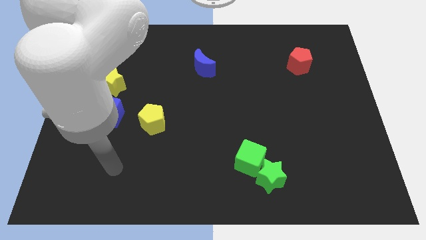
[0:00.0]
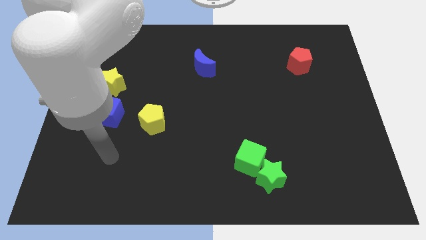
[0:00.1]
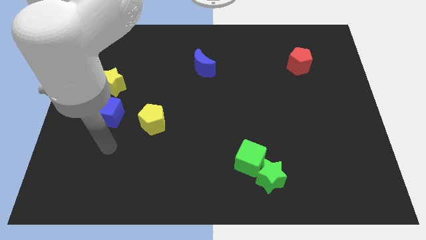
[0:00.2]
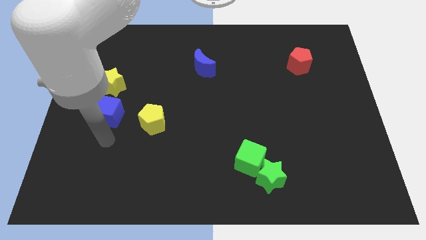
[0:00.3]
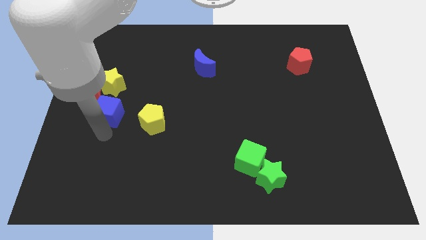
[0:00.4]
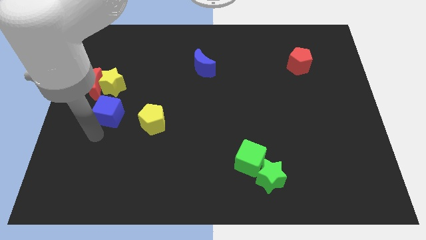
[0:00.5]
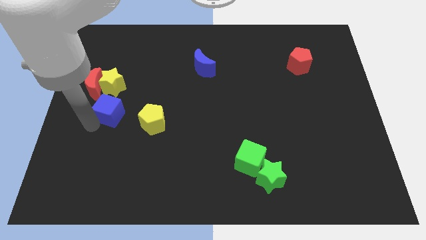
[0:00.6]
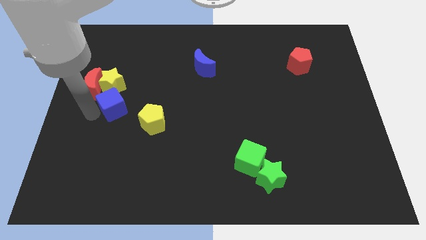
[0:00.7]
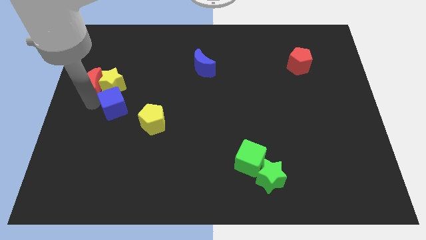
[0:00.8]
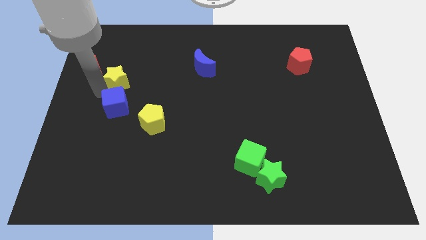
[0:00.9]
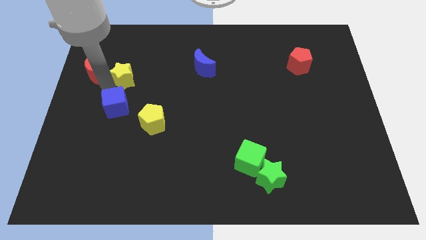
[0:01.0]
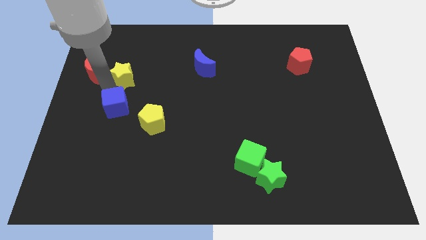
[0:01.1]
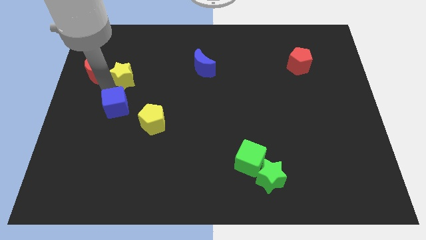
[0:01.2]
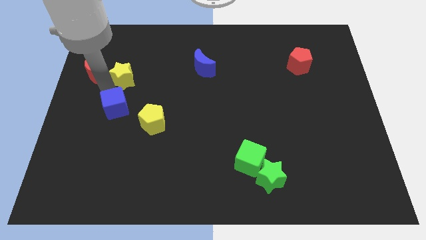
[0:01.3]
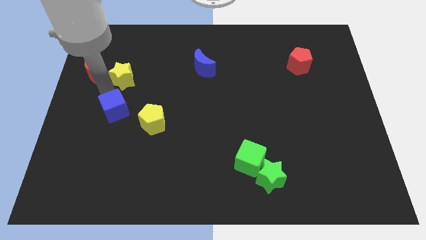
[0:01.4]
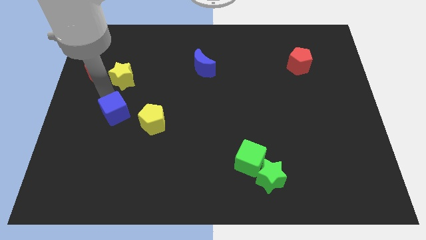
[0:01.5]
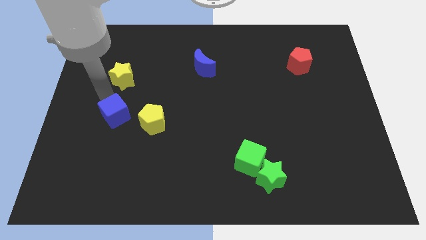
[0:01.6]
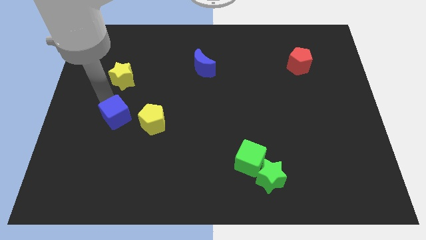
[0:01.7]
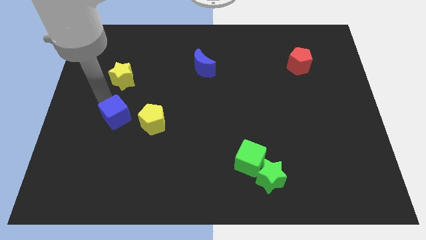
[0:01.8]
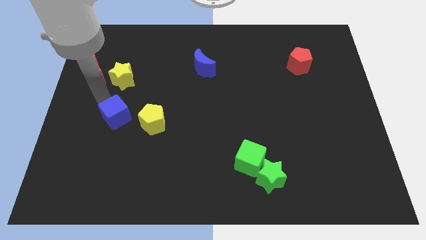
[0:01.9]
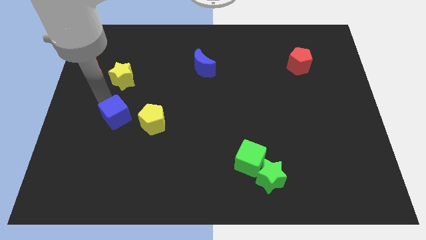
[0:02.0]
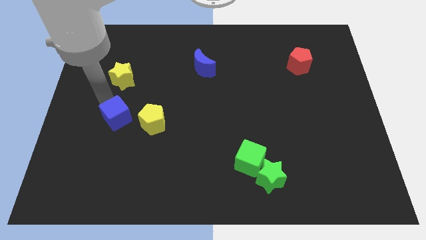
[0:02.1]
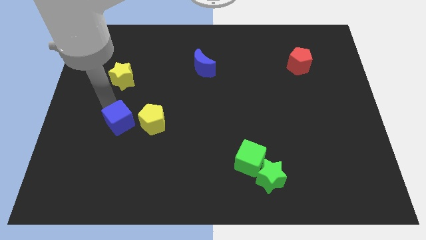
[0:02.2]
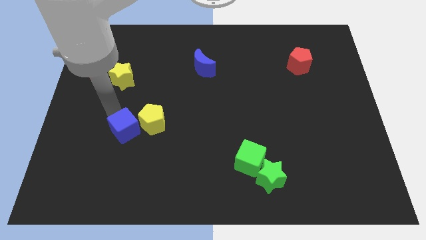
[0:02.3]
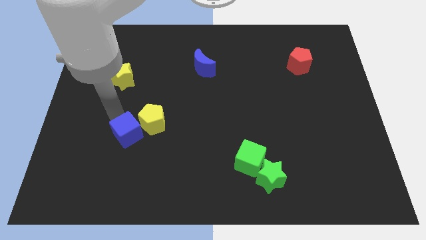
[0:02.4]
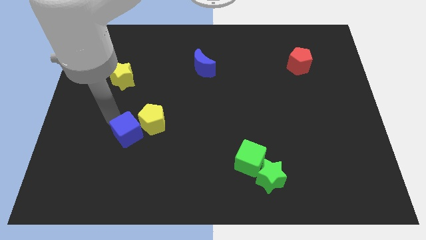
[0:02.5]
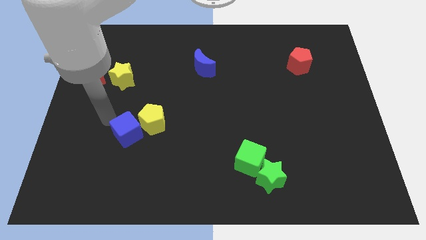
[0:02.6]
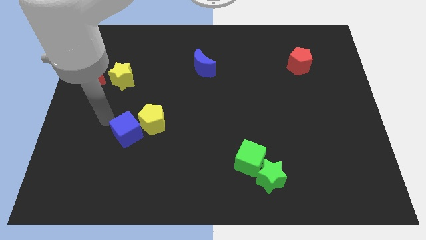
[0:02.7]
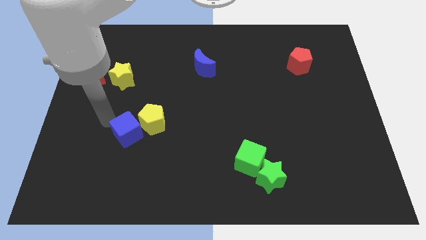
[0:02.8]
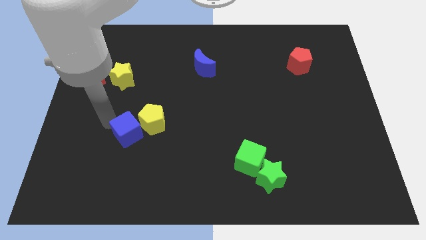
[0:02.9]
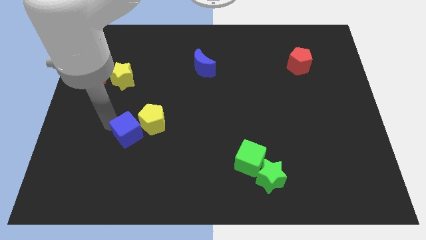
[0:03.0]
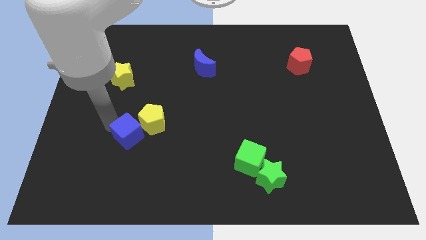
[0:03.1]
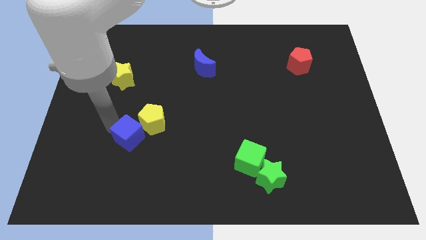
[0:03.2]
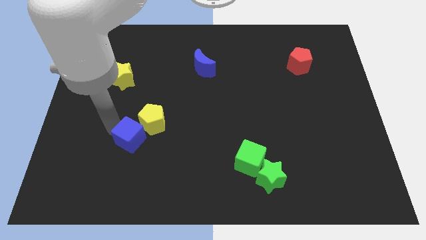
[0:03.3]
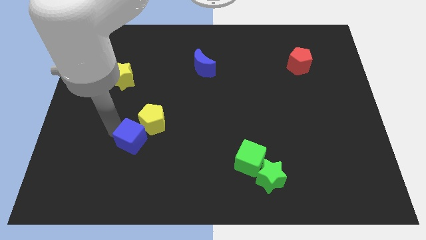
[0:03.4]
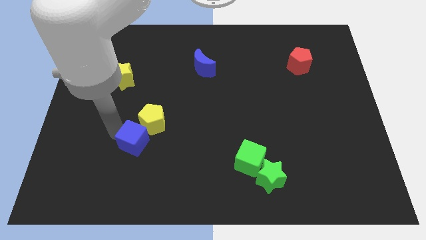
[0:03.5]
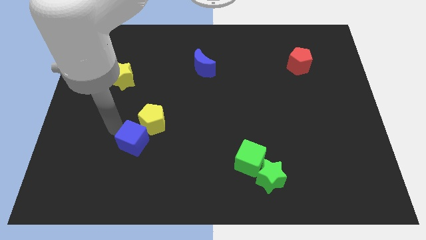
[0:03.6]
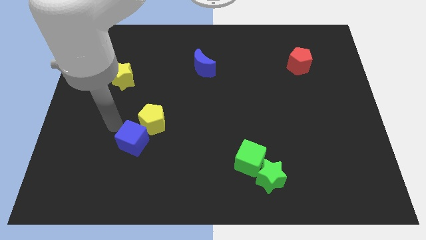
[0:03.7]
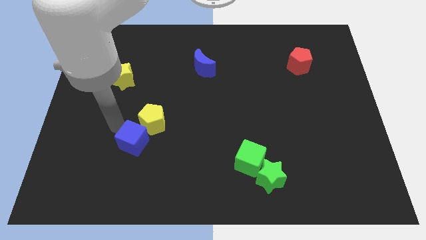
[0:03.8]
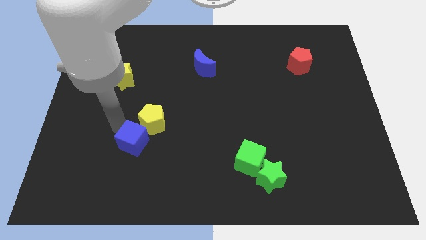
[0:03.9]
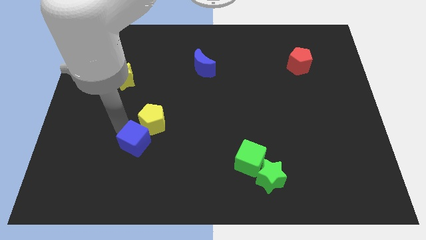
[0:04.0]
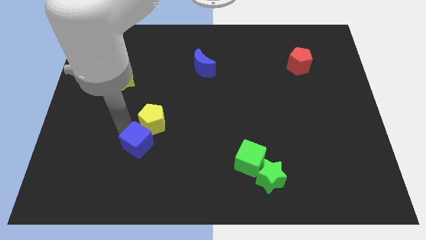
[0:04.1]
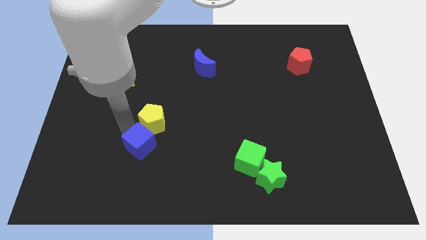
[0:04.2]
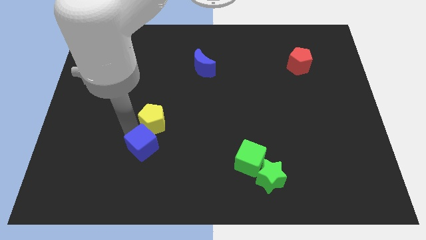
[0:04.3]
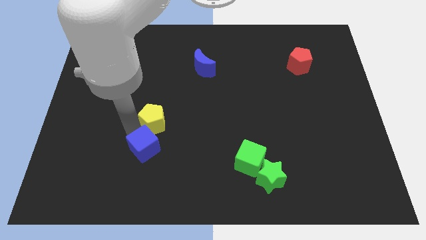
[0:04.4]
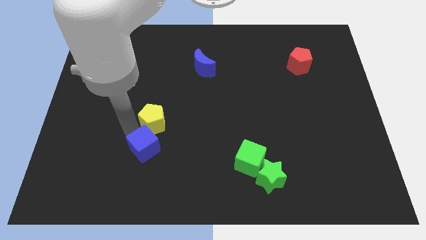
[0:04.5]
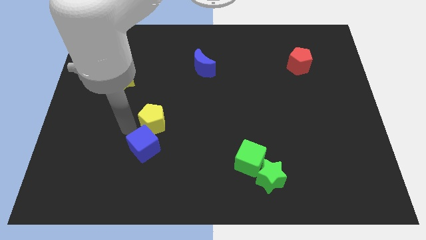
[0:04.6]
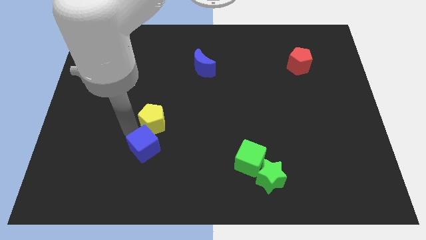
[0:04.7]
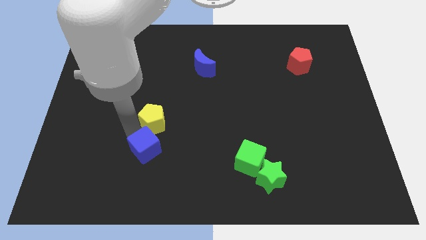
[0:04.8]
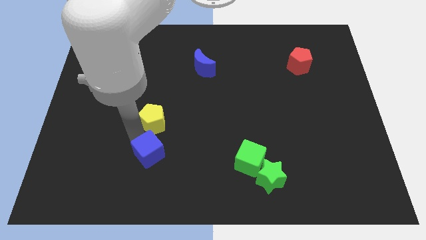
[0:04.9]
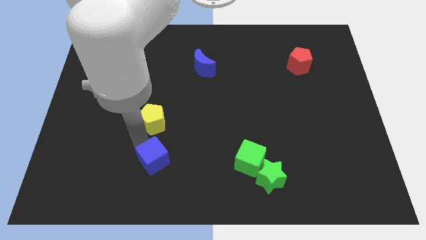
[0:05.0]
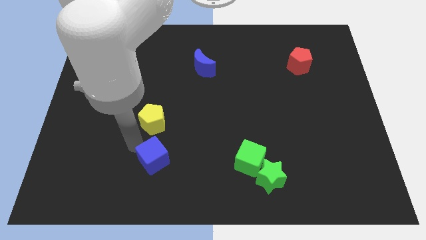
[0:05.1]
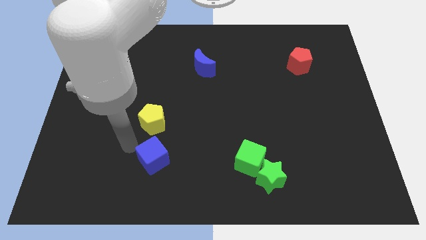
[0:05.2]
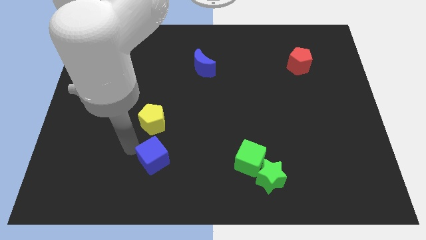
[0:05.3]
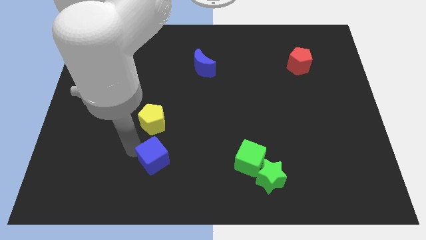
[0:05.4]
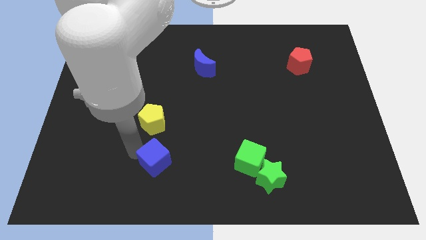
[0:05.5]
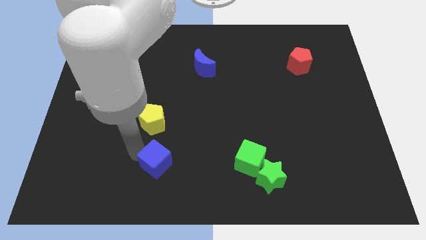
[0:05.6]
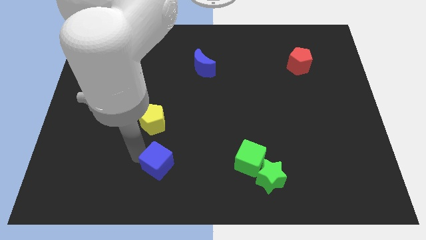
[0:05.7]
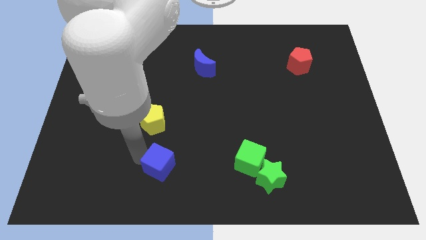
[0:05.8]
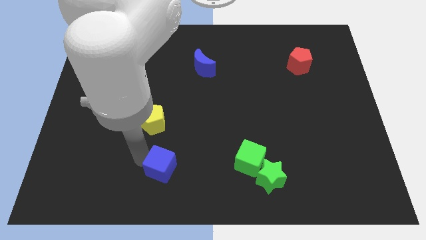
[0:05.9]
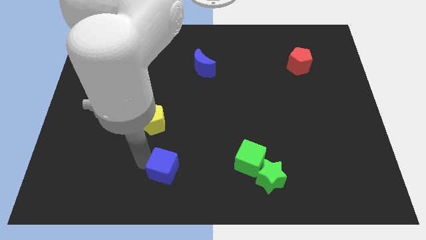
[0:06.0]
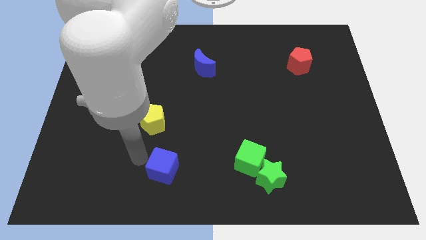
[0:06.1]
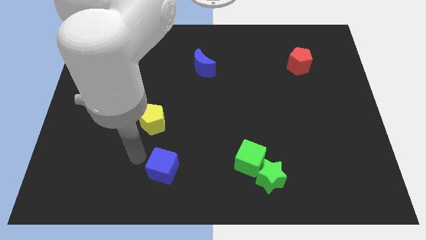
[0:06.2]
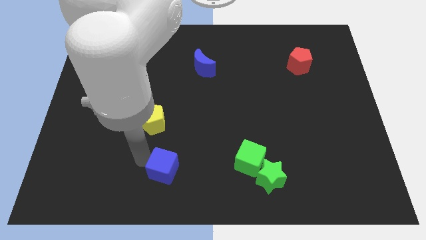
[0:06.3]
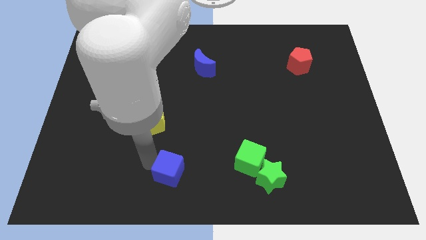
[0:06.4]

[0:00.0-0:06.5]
move the blue cube to the bottom side
